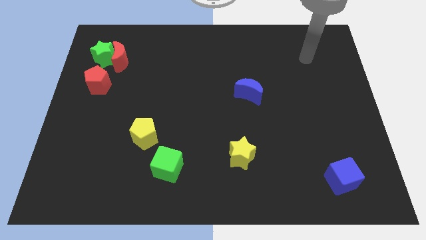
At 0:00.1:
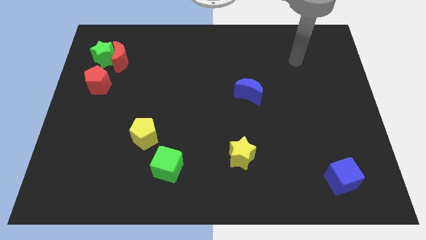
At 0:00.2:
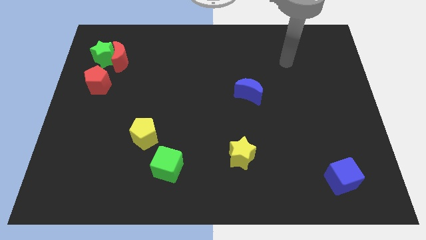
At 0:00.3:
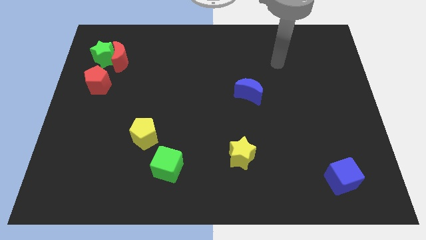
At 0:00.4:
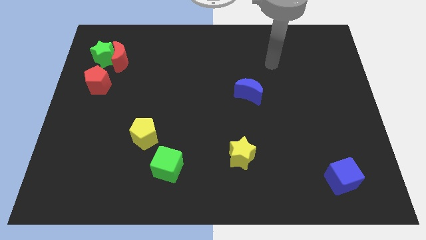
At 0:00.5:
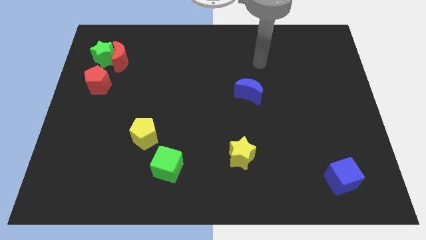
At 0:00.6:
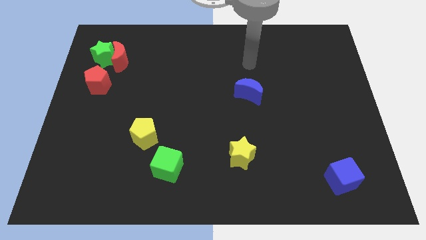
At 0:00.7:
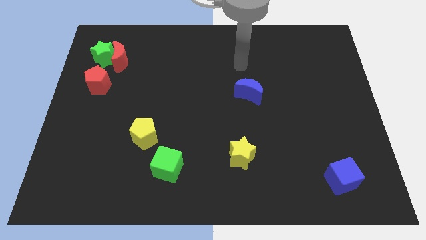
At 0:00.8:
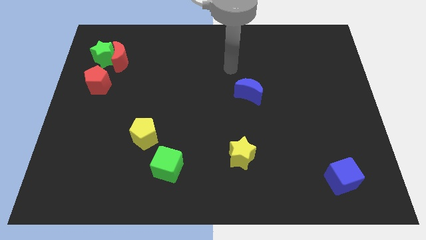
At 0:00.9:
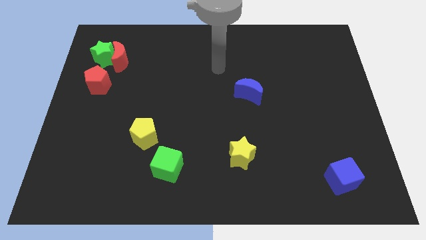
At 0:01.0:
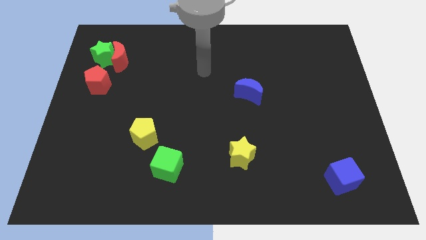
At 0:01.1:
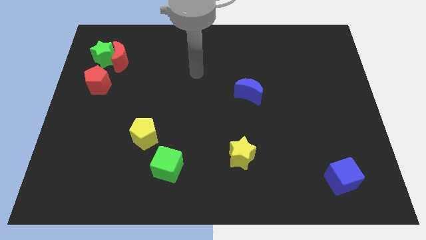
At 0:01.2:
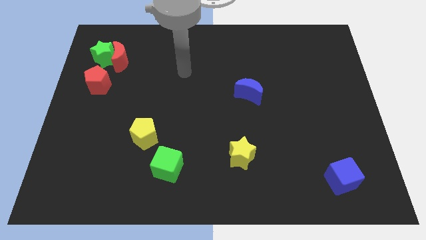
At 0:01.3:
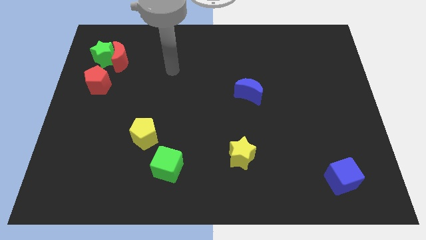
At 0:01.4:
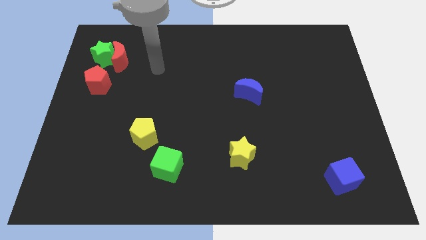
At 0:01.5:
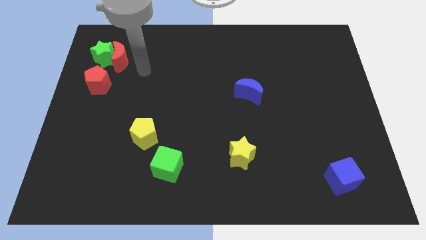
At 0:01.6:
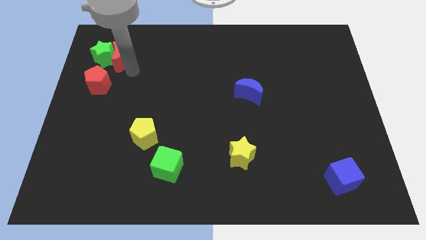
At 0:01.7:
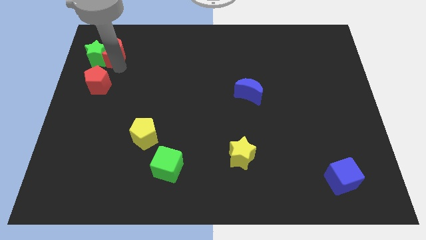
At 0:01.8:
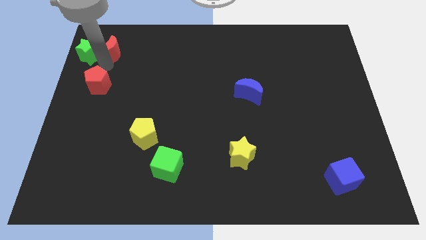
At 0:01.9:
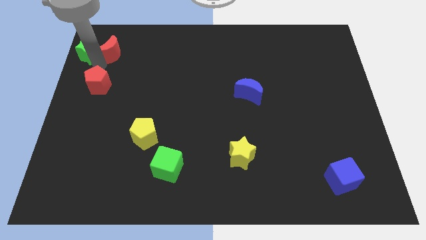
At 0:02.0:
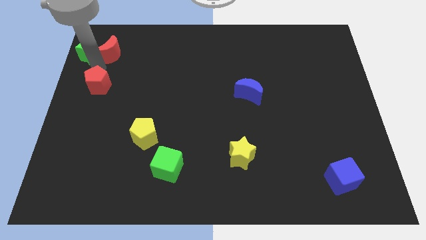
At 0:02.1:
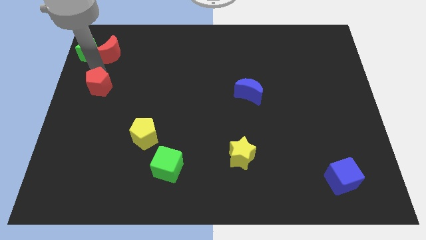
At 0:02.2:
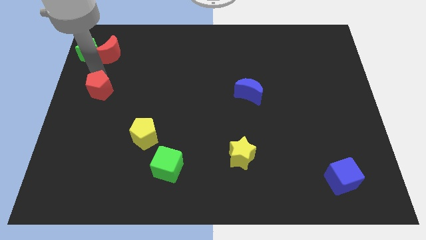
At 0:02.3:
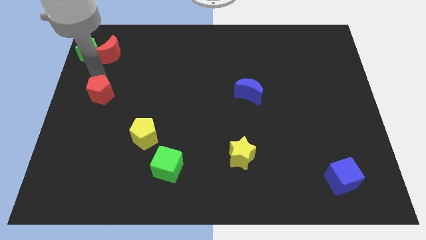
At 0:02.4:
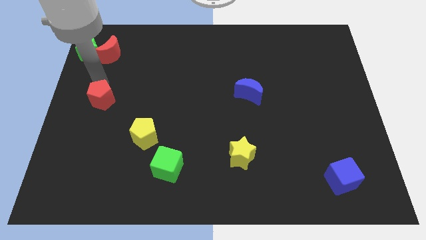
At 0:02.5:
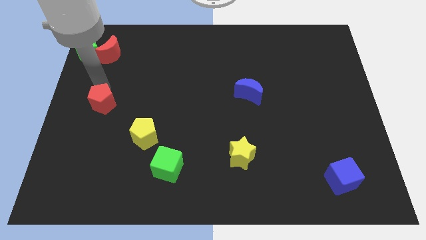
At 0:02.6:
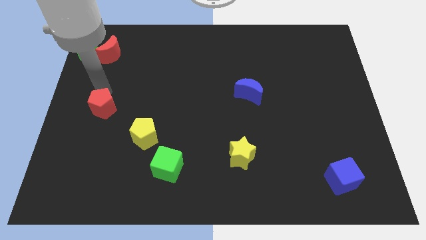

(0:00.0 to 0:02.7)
push the red pentagon a little bit downwards

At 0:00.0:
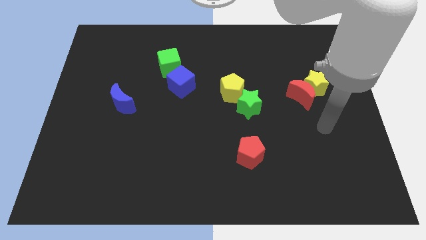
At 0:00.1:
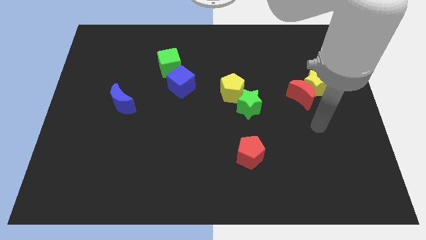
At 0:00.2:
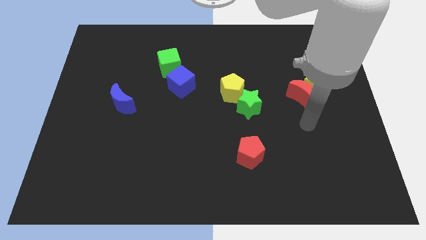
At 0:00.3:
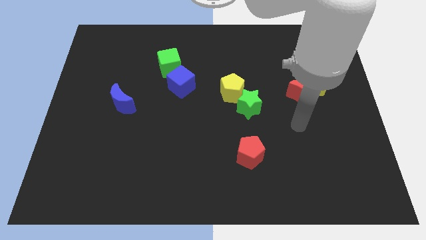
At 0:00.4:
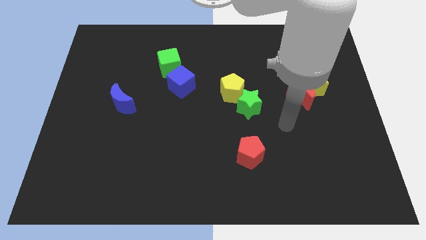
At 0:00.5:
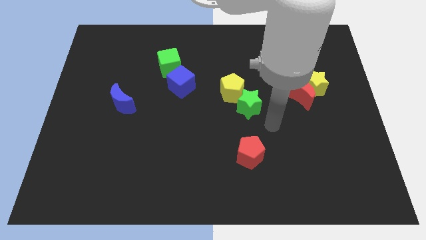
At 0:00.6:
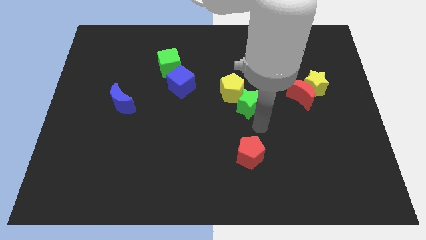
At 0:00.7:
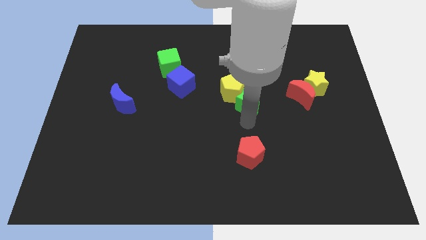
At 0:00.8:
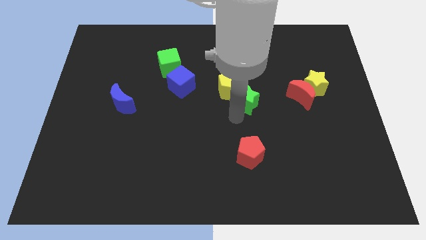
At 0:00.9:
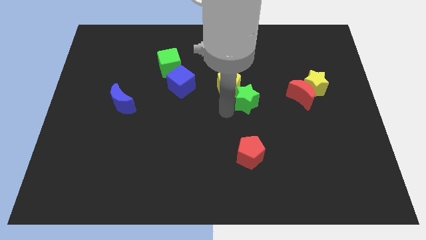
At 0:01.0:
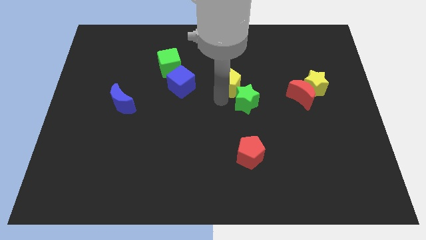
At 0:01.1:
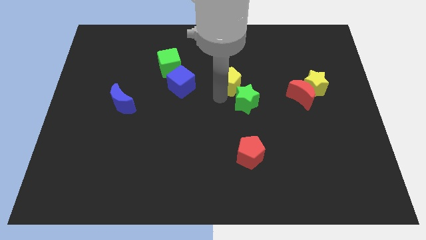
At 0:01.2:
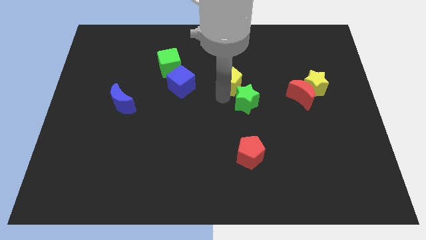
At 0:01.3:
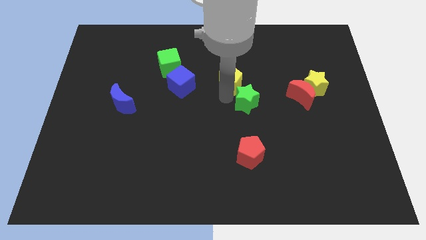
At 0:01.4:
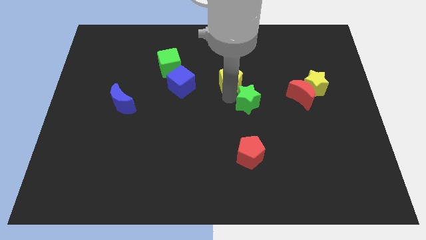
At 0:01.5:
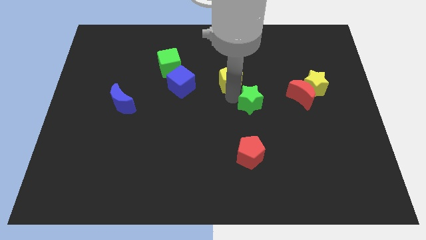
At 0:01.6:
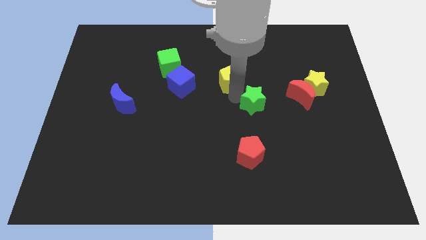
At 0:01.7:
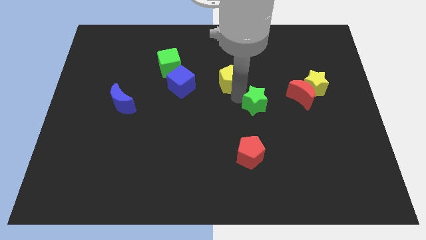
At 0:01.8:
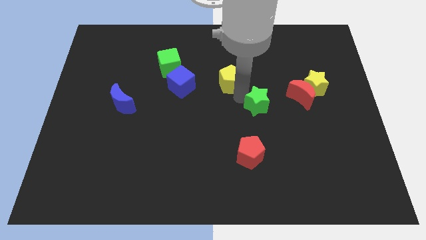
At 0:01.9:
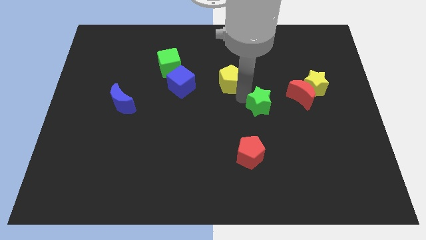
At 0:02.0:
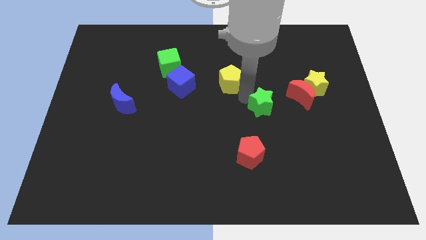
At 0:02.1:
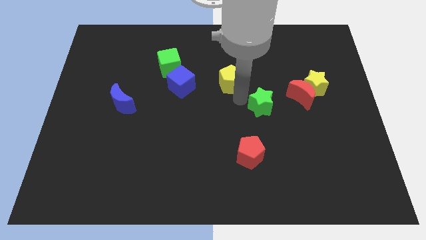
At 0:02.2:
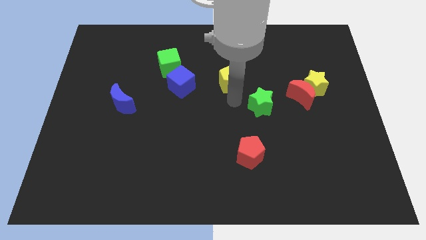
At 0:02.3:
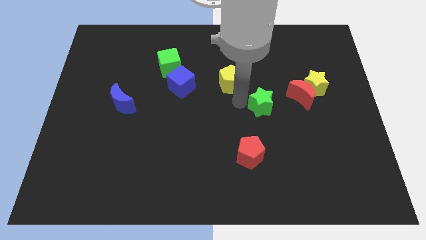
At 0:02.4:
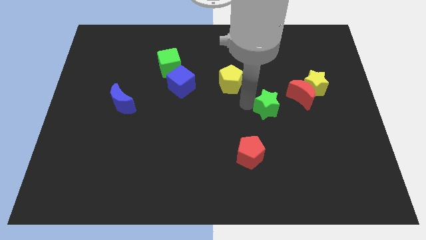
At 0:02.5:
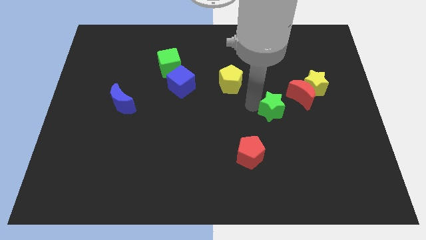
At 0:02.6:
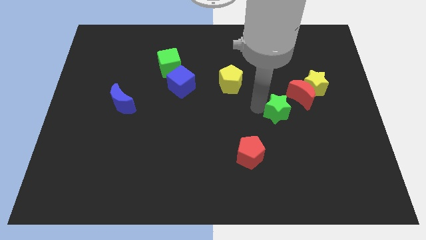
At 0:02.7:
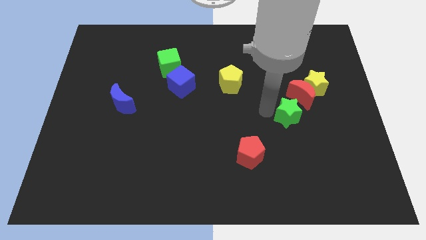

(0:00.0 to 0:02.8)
push the green star to the right a little bit

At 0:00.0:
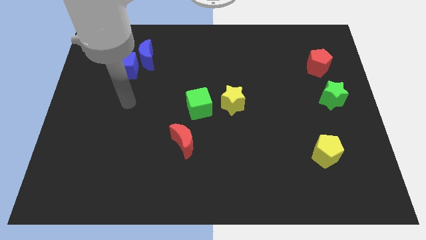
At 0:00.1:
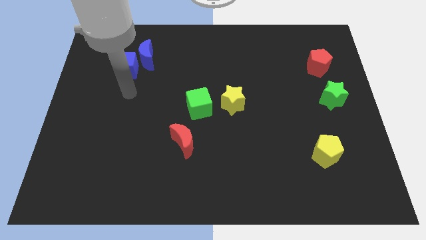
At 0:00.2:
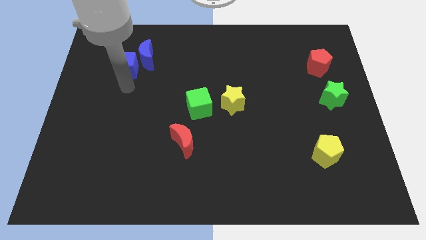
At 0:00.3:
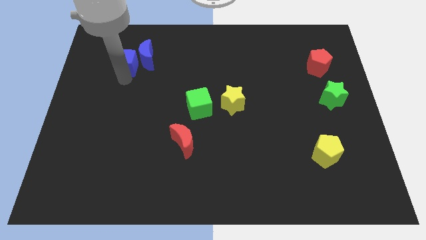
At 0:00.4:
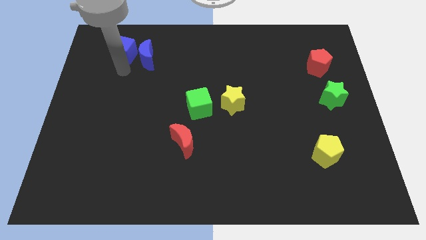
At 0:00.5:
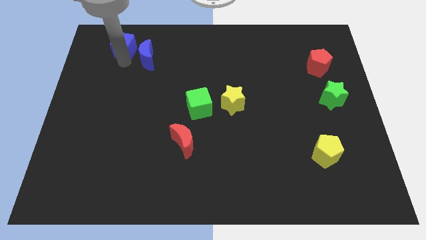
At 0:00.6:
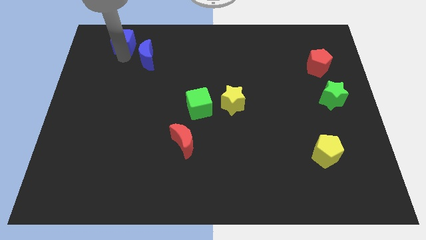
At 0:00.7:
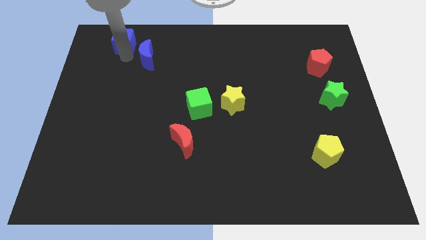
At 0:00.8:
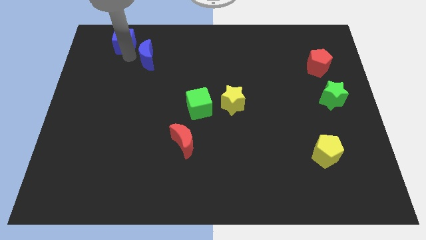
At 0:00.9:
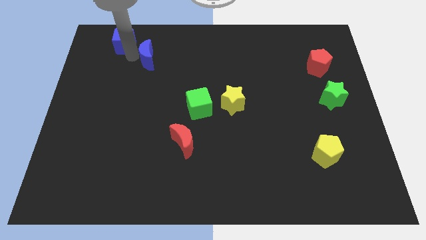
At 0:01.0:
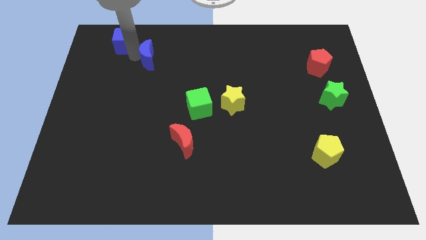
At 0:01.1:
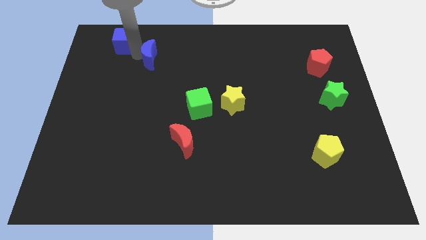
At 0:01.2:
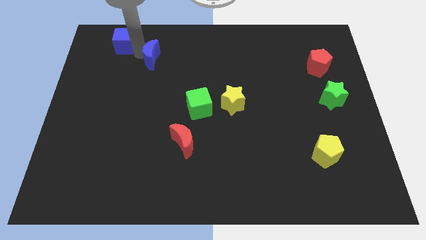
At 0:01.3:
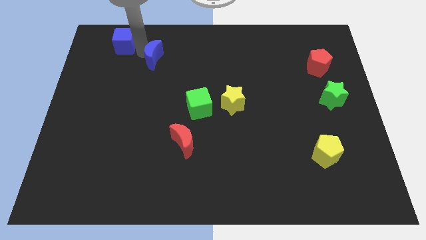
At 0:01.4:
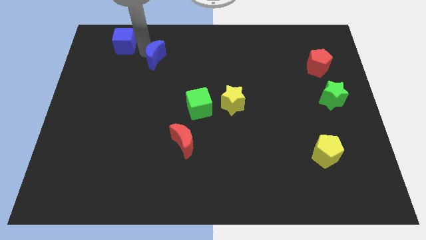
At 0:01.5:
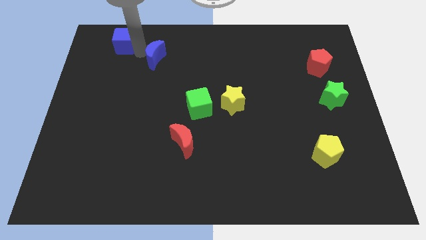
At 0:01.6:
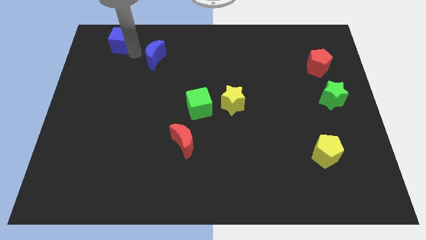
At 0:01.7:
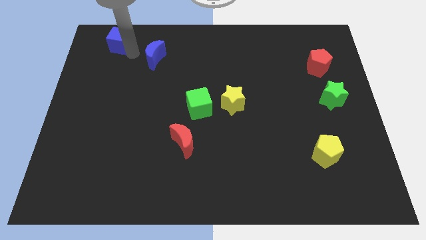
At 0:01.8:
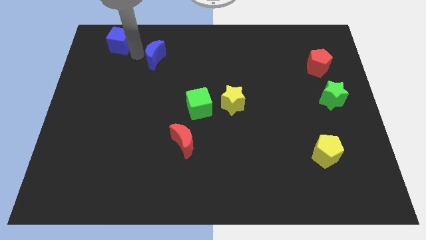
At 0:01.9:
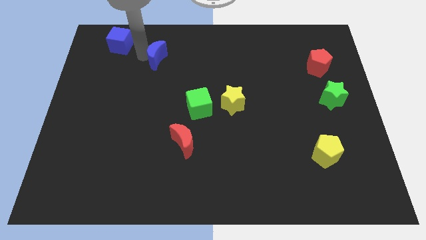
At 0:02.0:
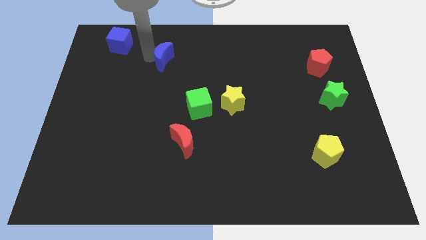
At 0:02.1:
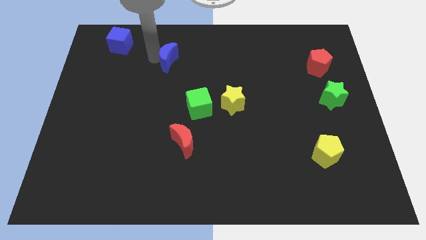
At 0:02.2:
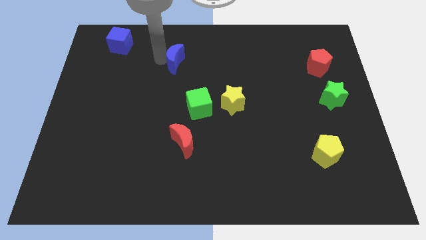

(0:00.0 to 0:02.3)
push the blue moon somewhat to the right

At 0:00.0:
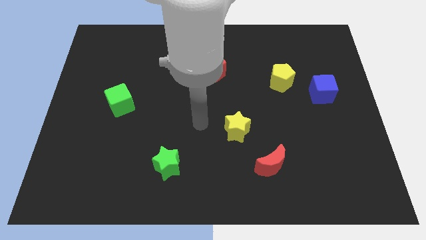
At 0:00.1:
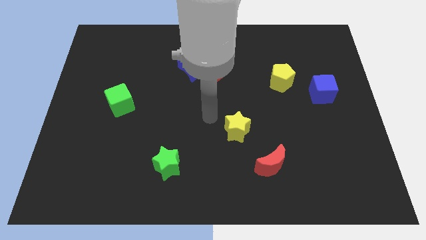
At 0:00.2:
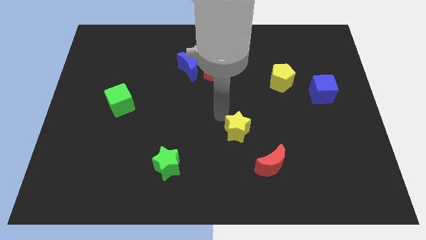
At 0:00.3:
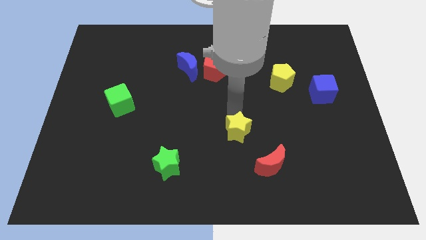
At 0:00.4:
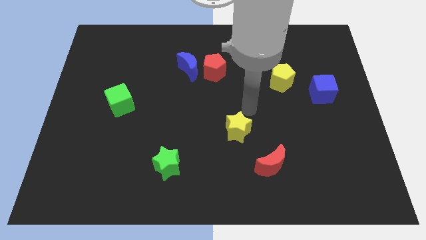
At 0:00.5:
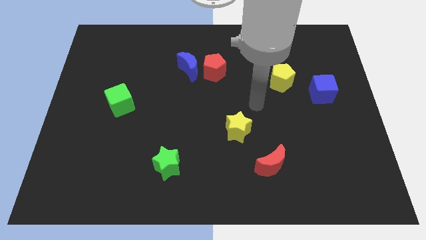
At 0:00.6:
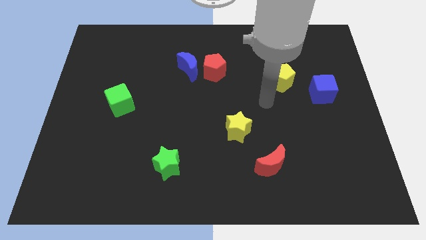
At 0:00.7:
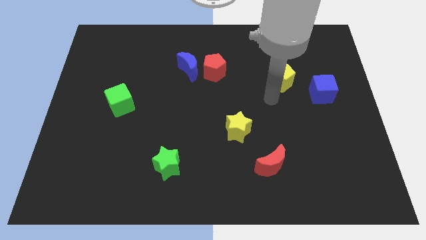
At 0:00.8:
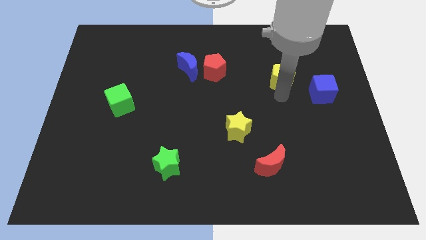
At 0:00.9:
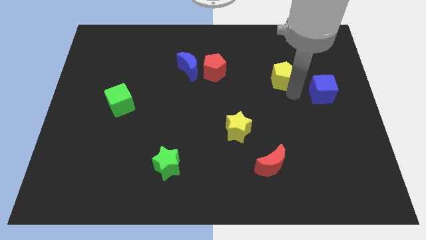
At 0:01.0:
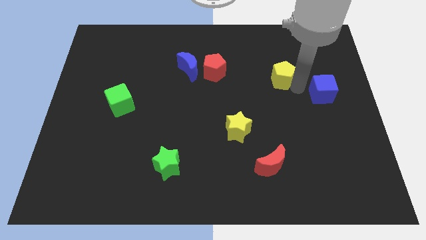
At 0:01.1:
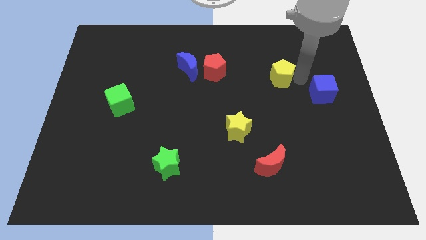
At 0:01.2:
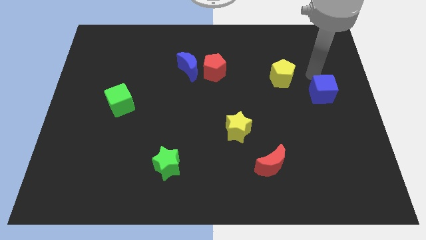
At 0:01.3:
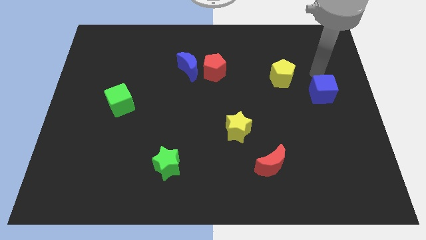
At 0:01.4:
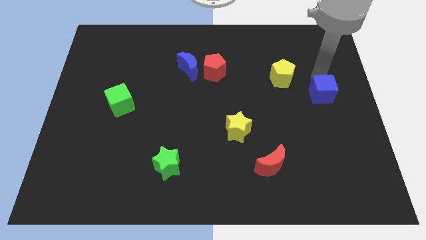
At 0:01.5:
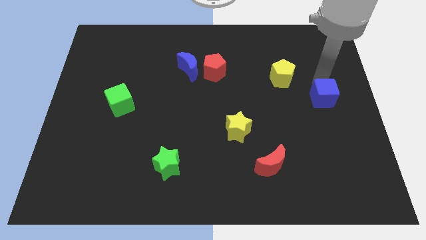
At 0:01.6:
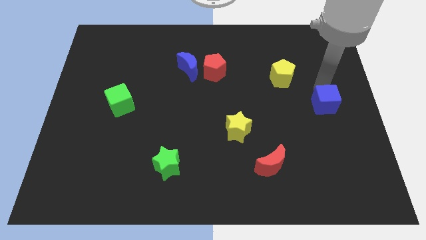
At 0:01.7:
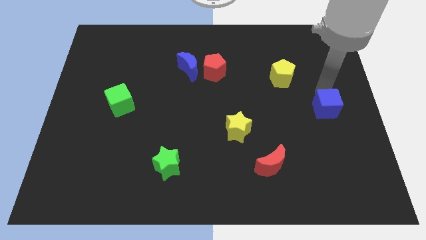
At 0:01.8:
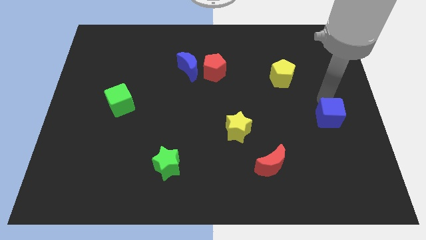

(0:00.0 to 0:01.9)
slide the blue cube somewhat down
